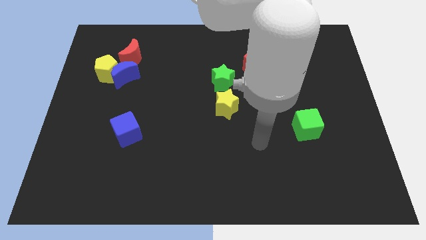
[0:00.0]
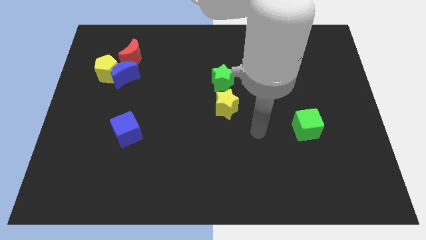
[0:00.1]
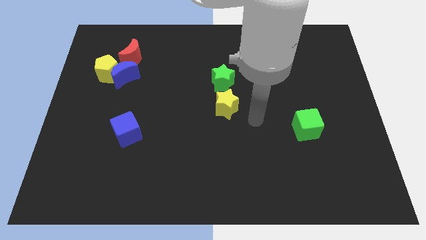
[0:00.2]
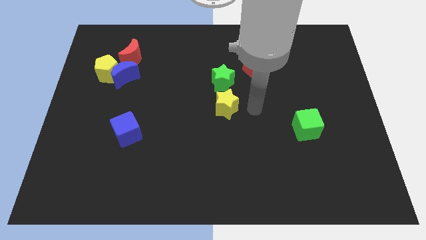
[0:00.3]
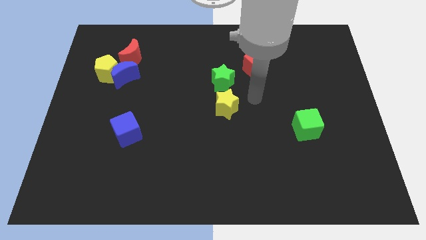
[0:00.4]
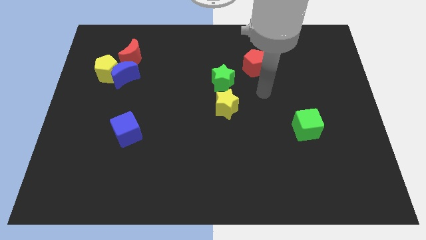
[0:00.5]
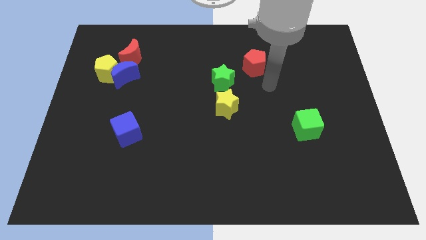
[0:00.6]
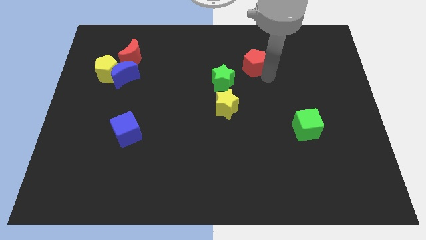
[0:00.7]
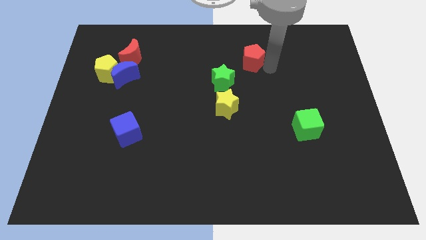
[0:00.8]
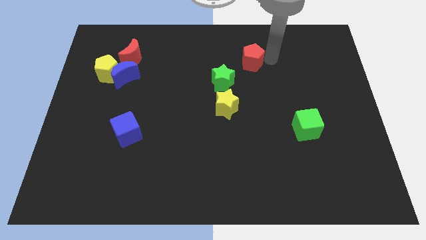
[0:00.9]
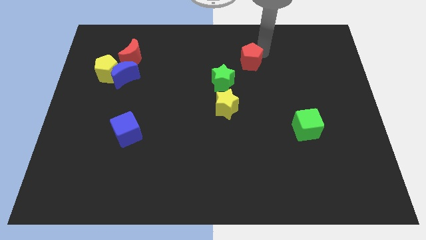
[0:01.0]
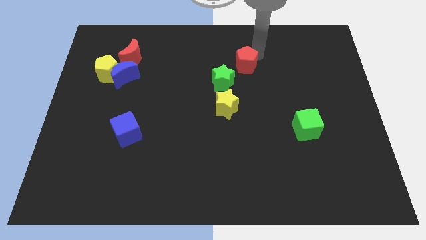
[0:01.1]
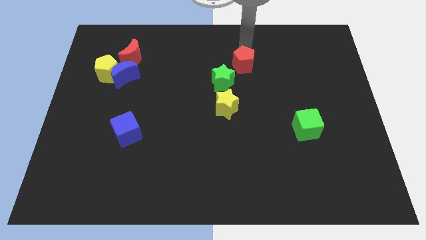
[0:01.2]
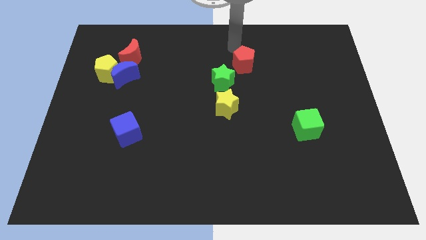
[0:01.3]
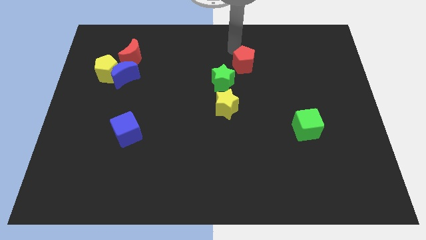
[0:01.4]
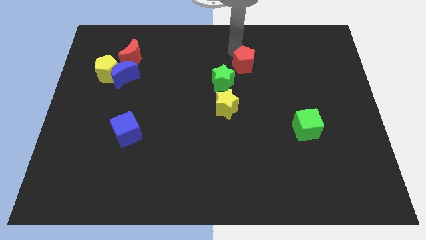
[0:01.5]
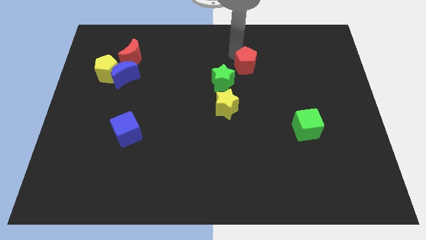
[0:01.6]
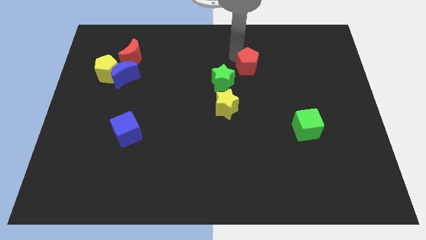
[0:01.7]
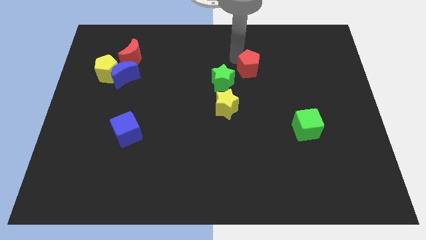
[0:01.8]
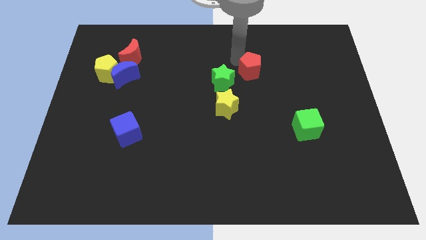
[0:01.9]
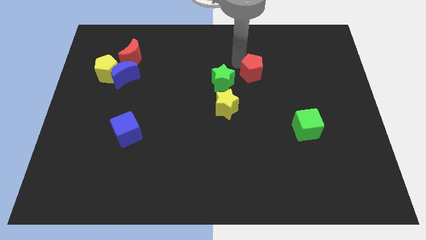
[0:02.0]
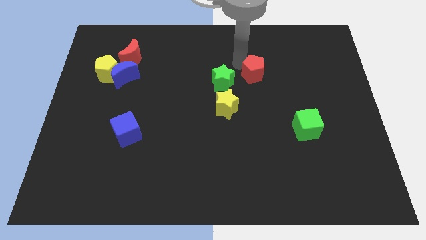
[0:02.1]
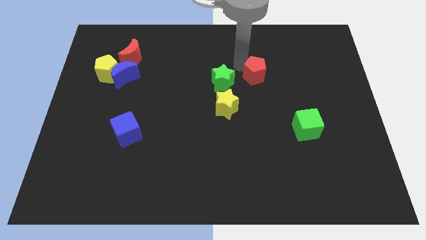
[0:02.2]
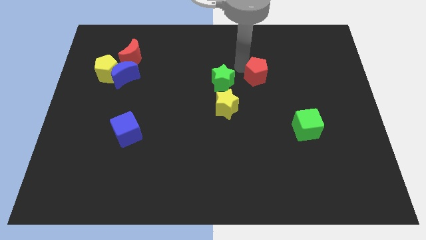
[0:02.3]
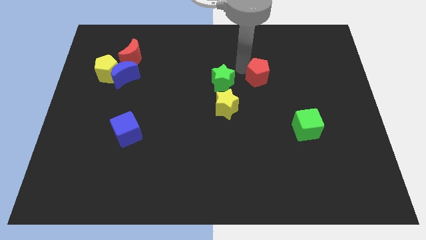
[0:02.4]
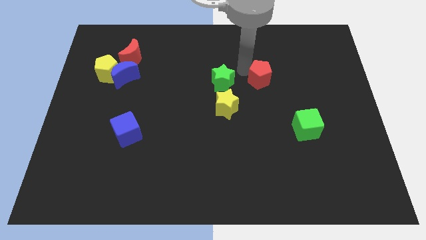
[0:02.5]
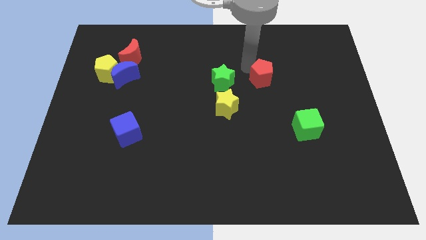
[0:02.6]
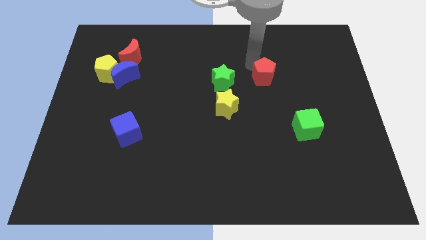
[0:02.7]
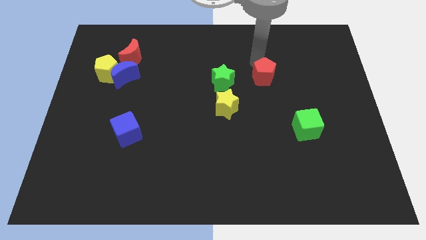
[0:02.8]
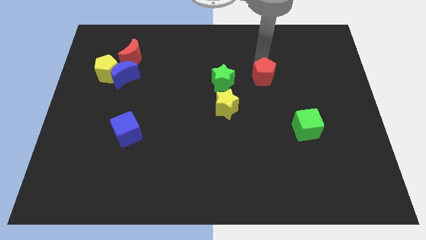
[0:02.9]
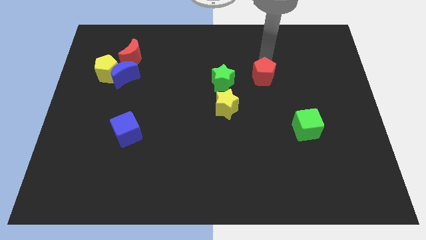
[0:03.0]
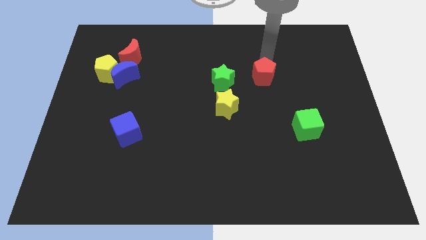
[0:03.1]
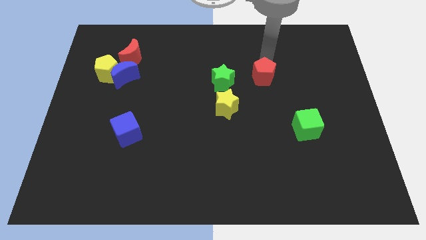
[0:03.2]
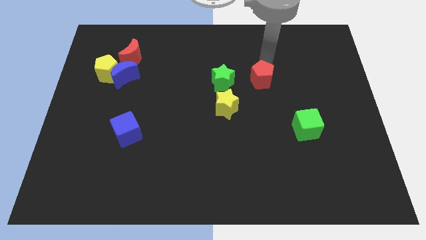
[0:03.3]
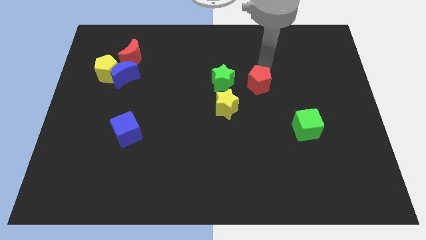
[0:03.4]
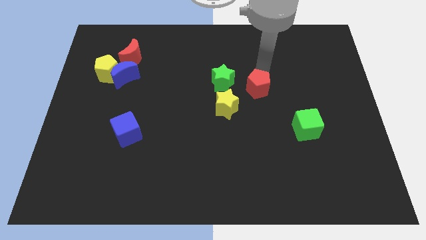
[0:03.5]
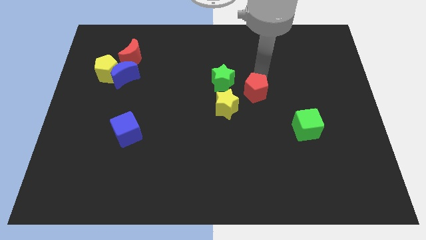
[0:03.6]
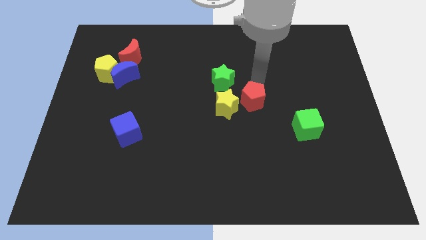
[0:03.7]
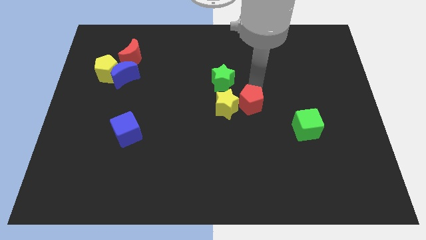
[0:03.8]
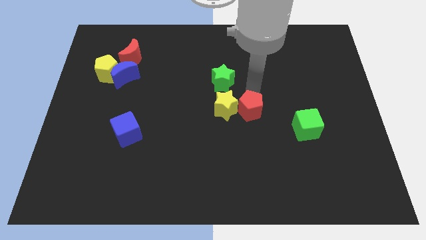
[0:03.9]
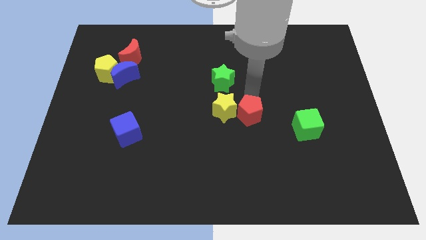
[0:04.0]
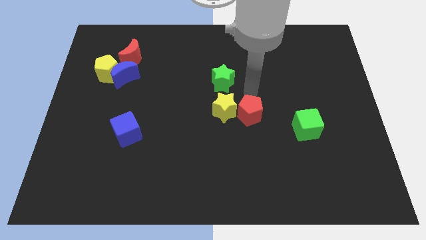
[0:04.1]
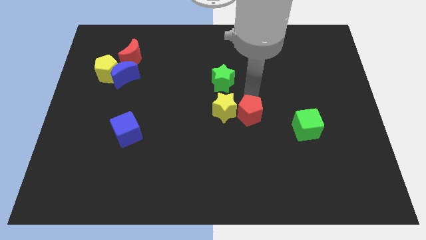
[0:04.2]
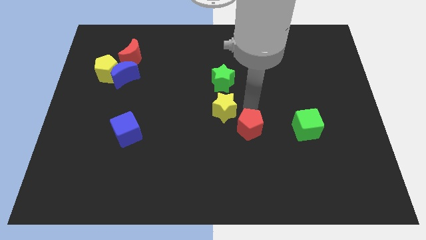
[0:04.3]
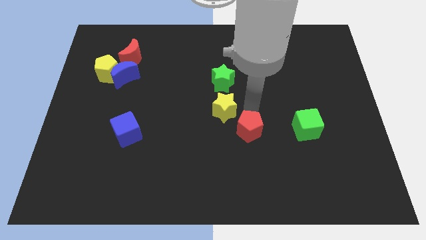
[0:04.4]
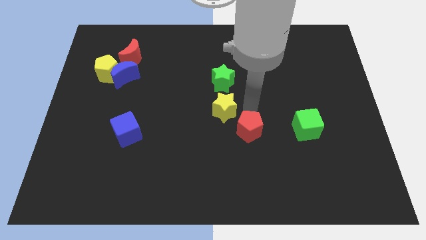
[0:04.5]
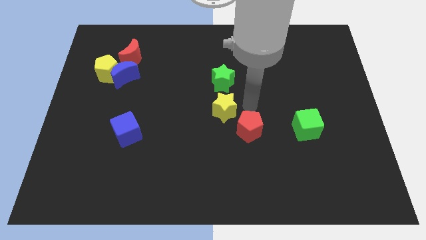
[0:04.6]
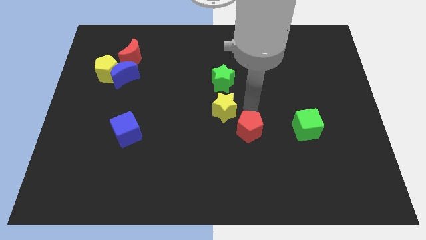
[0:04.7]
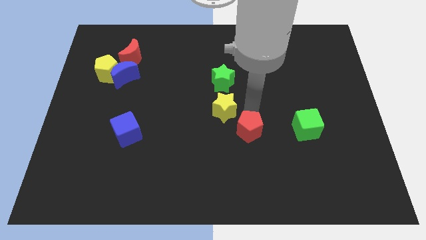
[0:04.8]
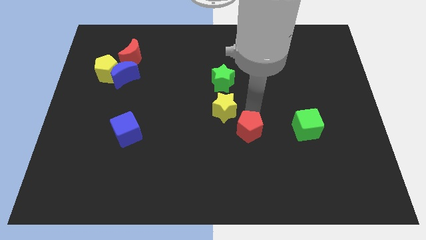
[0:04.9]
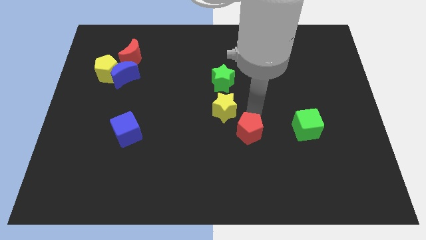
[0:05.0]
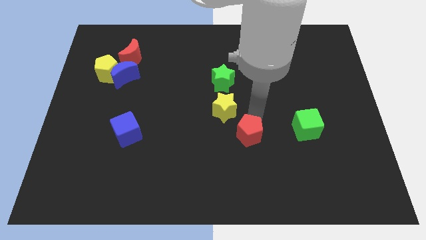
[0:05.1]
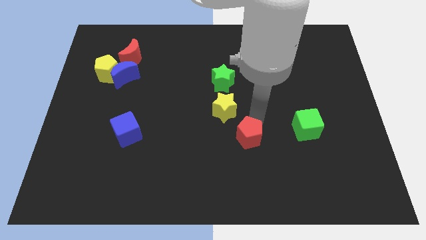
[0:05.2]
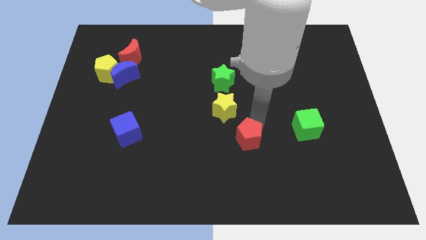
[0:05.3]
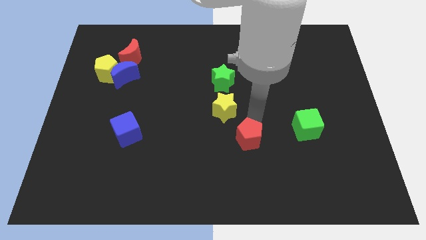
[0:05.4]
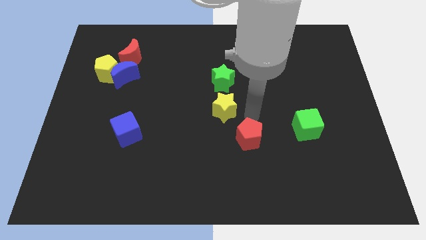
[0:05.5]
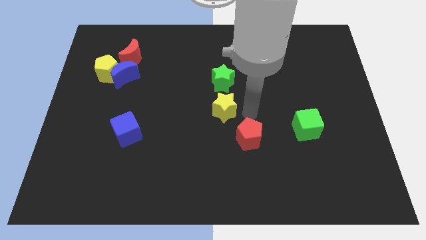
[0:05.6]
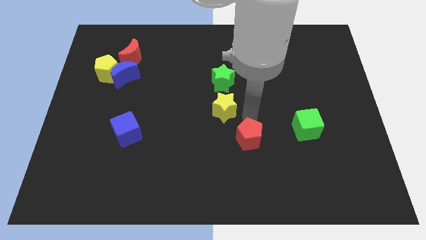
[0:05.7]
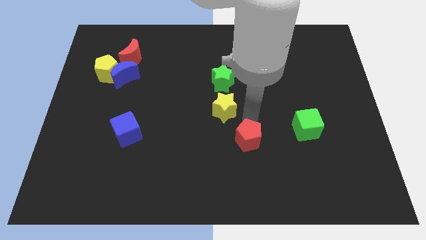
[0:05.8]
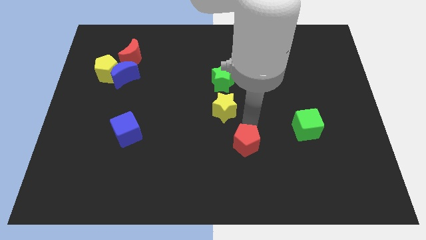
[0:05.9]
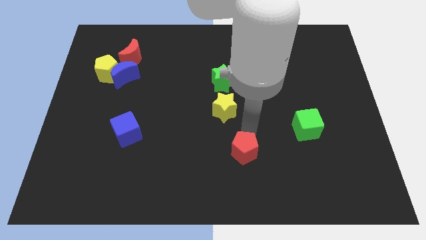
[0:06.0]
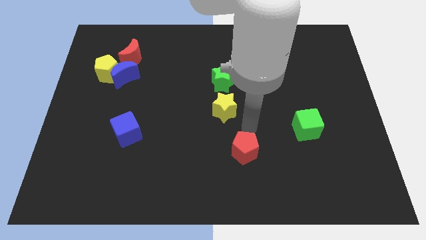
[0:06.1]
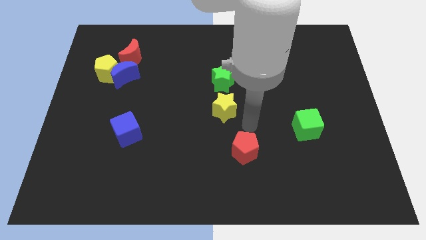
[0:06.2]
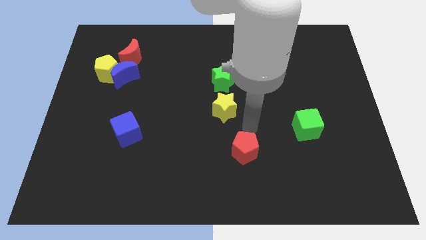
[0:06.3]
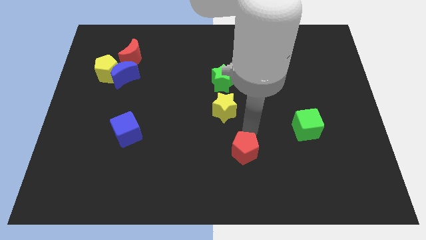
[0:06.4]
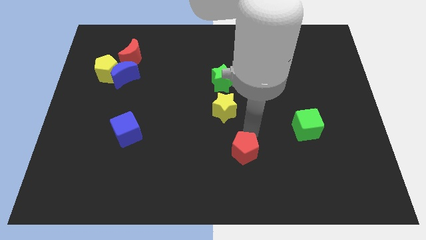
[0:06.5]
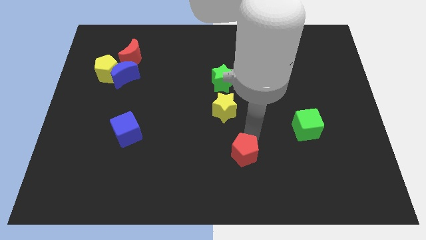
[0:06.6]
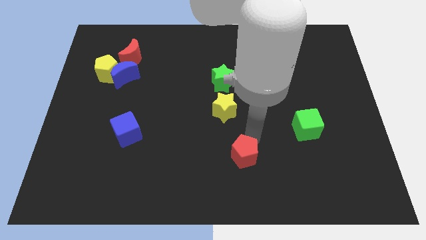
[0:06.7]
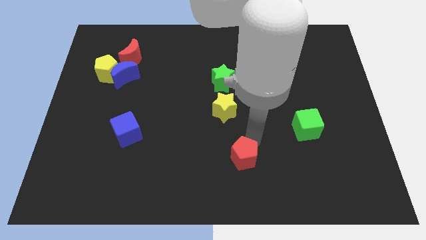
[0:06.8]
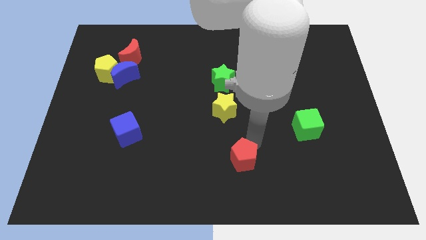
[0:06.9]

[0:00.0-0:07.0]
slide the red pentagon to the bottom
